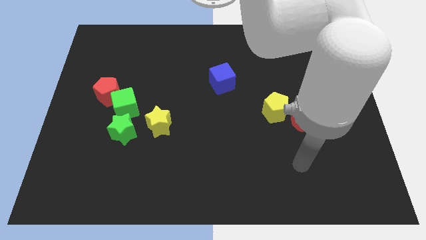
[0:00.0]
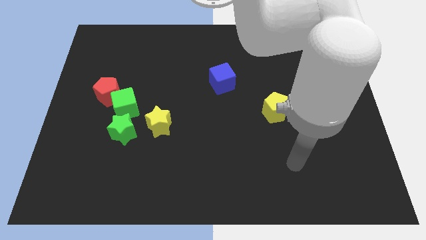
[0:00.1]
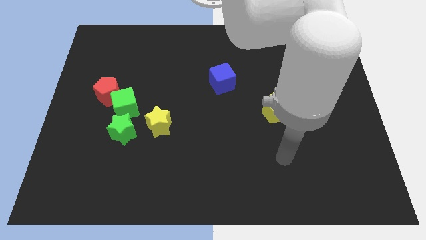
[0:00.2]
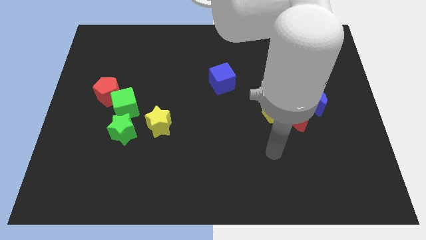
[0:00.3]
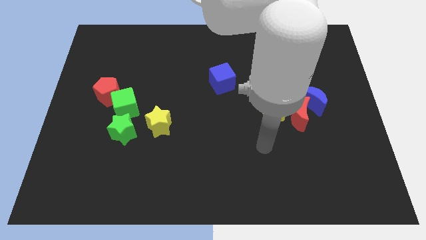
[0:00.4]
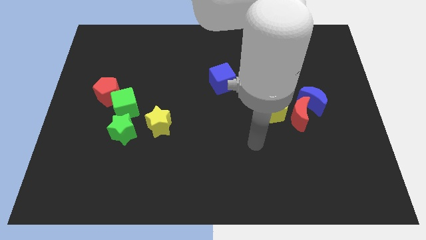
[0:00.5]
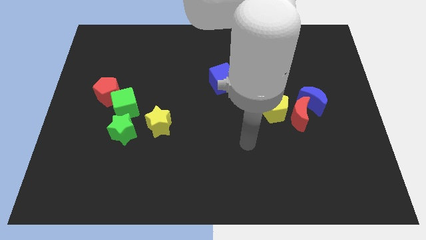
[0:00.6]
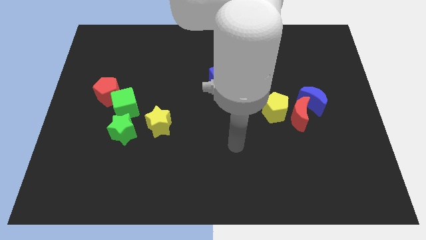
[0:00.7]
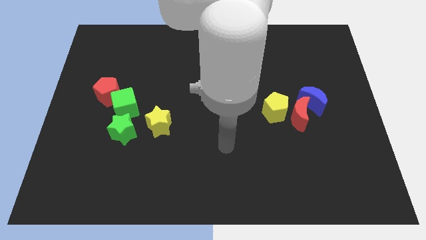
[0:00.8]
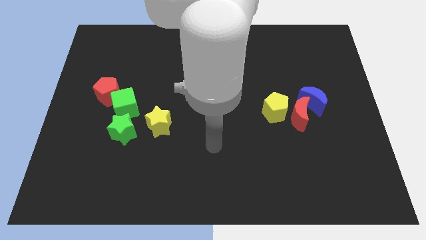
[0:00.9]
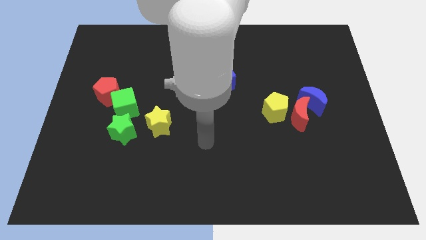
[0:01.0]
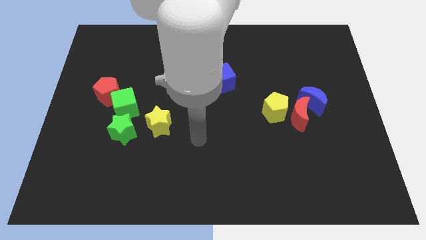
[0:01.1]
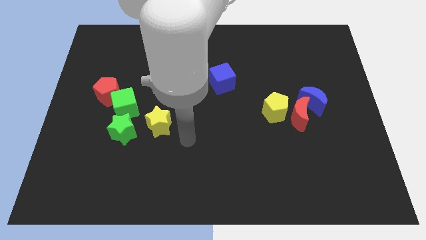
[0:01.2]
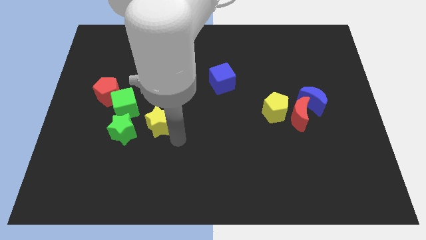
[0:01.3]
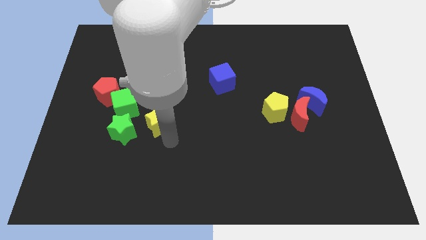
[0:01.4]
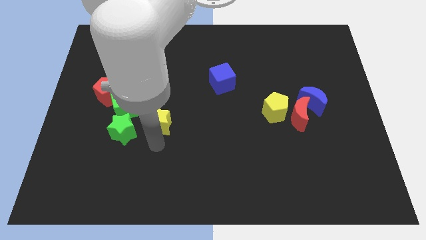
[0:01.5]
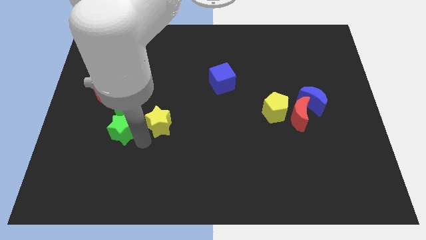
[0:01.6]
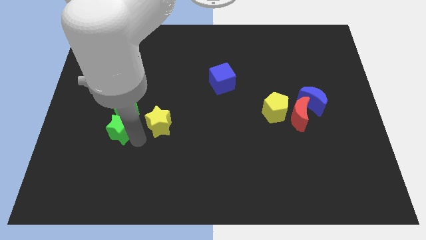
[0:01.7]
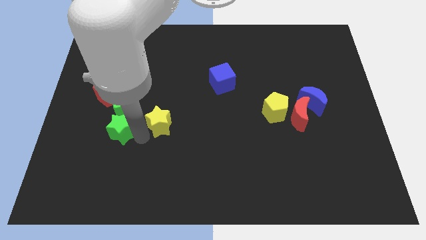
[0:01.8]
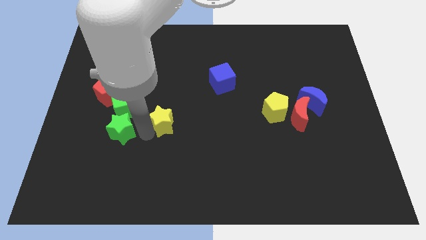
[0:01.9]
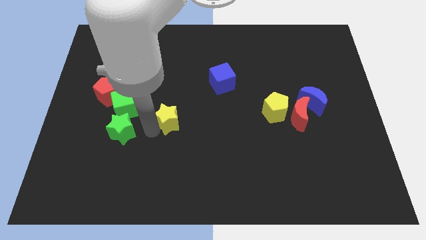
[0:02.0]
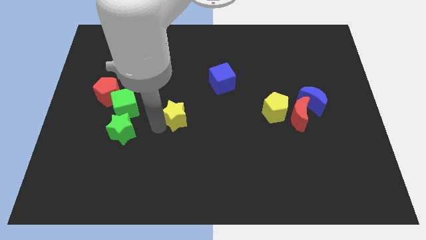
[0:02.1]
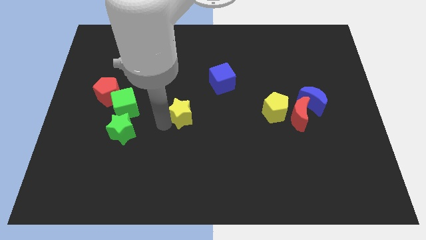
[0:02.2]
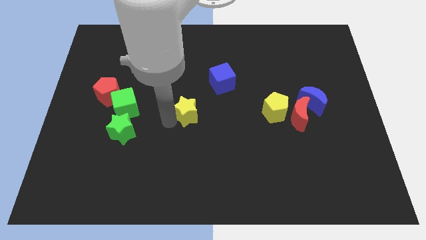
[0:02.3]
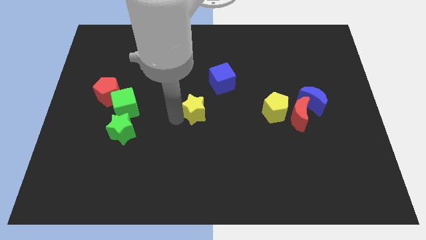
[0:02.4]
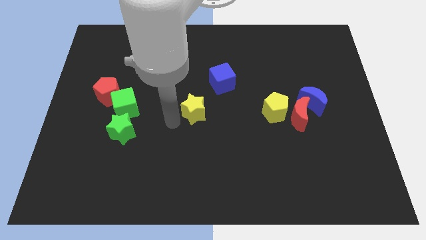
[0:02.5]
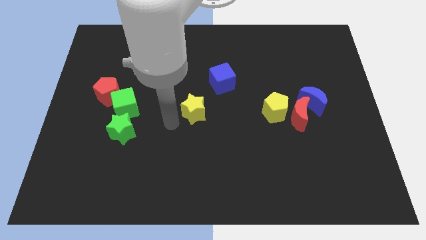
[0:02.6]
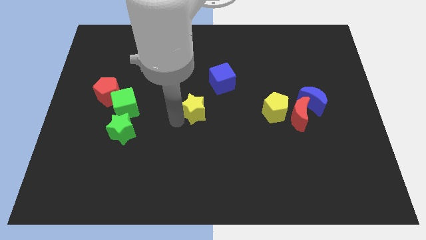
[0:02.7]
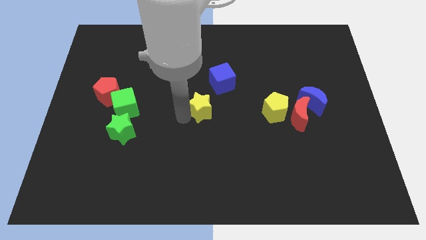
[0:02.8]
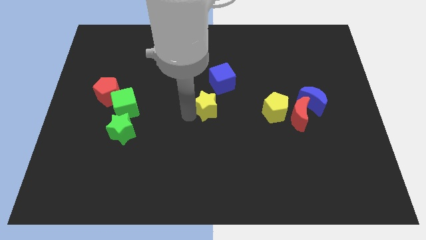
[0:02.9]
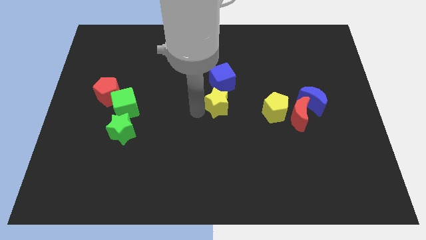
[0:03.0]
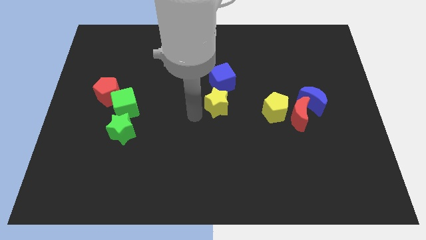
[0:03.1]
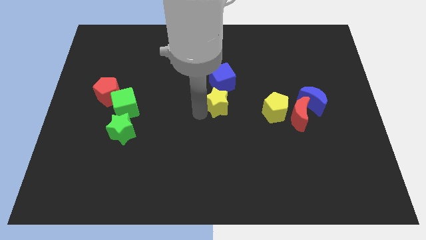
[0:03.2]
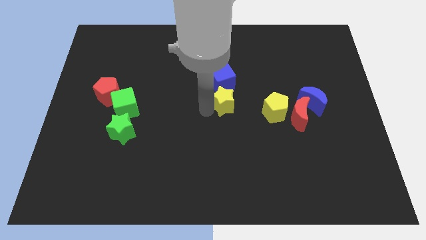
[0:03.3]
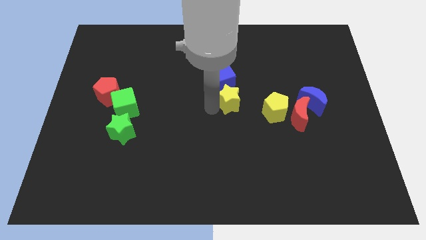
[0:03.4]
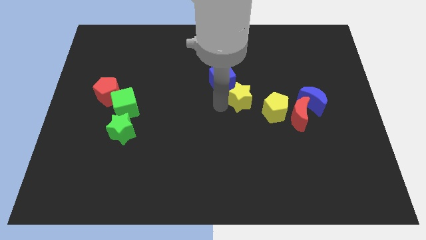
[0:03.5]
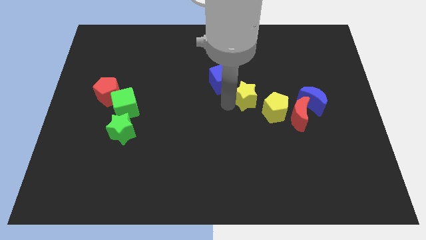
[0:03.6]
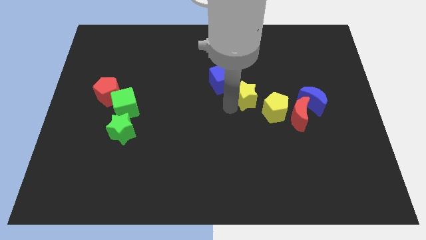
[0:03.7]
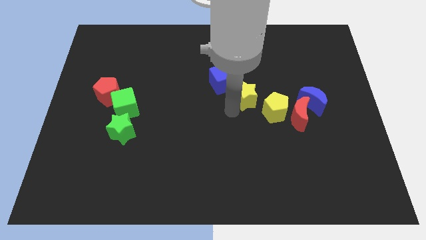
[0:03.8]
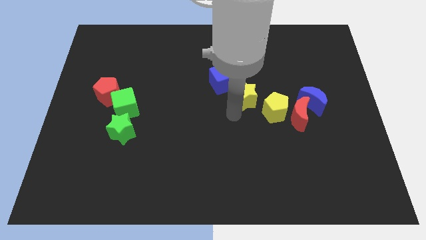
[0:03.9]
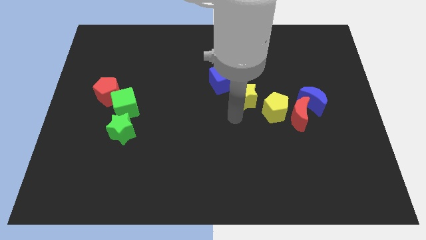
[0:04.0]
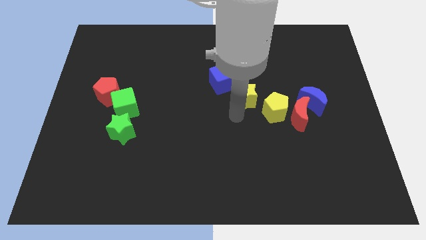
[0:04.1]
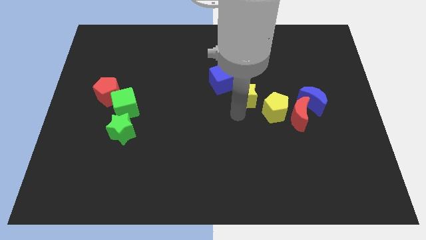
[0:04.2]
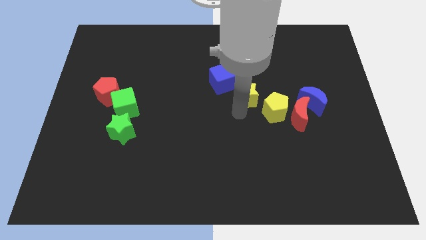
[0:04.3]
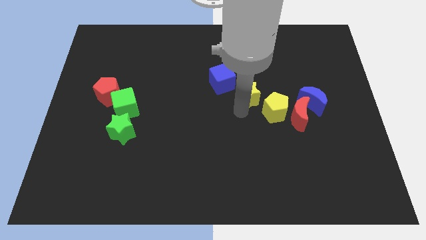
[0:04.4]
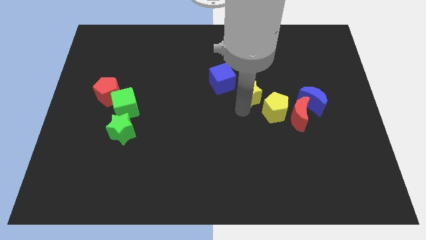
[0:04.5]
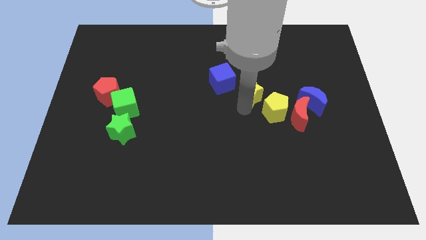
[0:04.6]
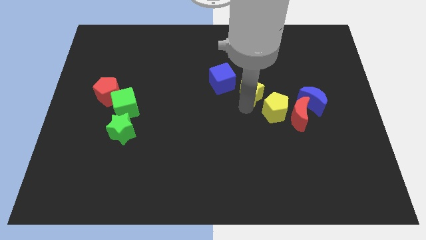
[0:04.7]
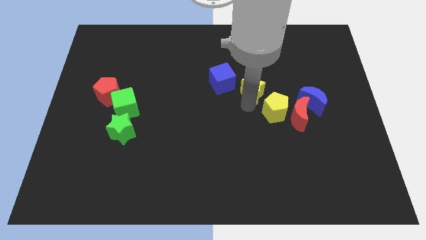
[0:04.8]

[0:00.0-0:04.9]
push the yellow star above the yellow pentagon

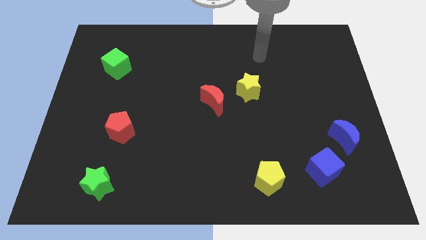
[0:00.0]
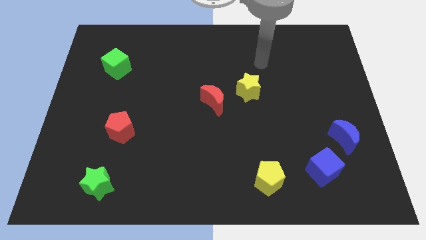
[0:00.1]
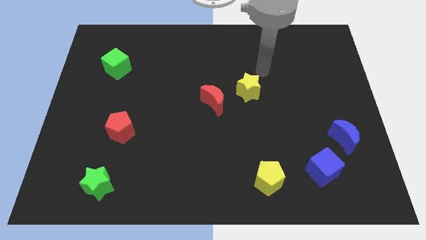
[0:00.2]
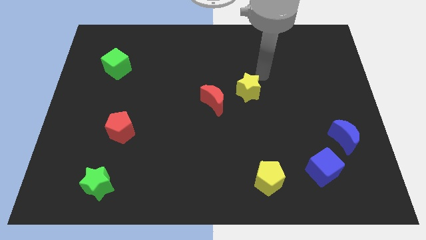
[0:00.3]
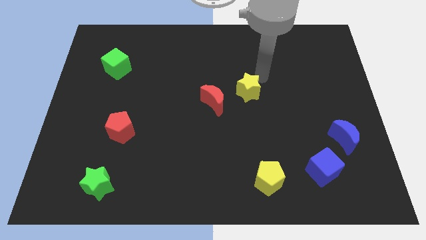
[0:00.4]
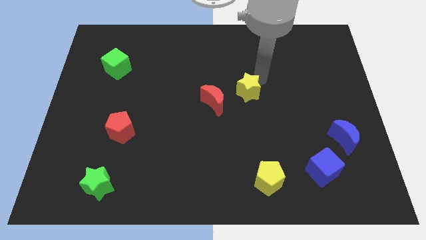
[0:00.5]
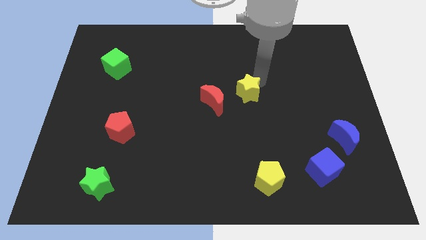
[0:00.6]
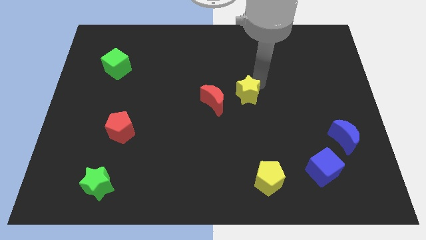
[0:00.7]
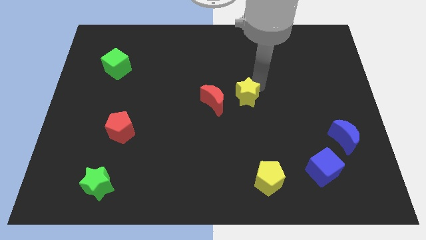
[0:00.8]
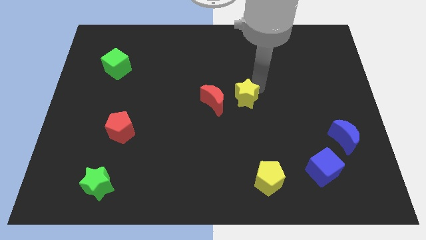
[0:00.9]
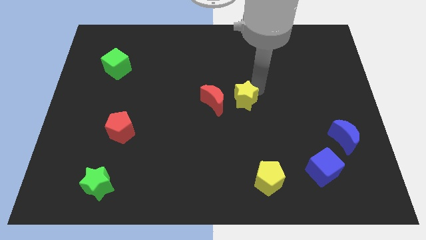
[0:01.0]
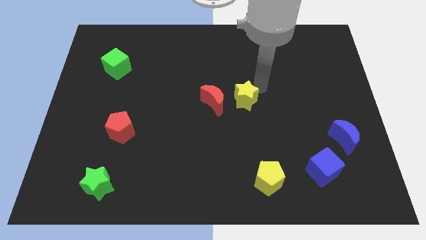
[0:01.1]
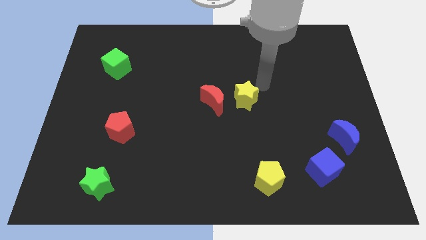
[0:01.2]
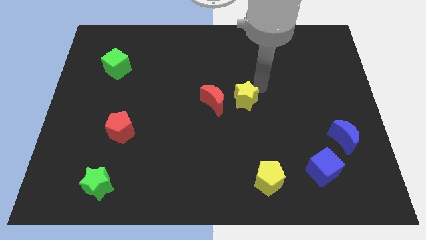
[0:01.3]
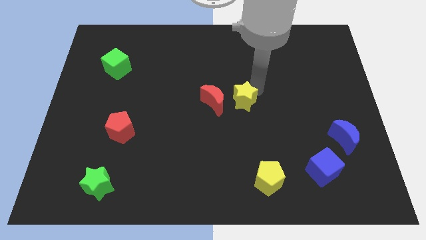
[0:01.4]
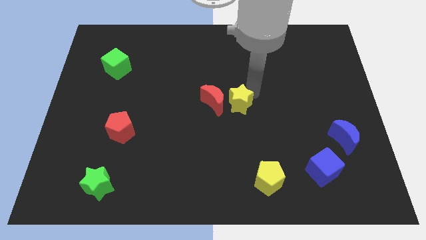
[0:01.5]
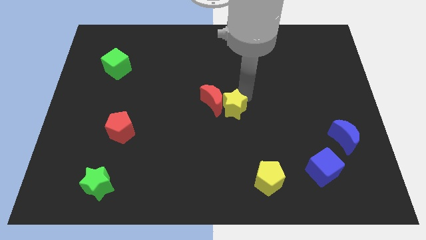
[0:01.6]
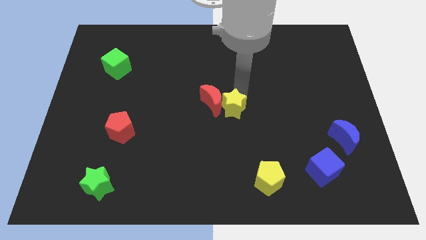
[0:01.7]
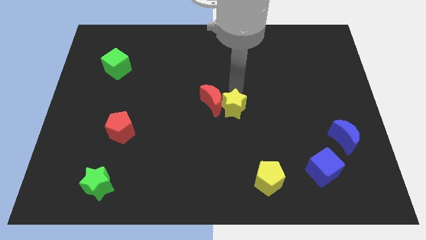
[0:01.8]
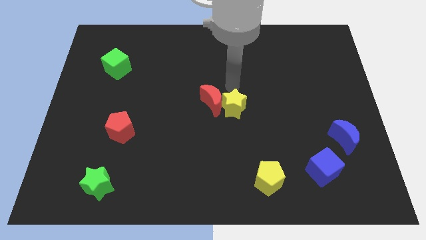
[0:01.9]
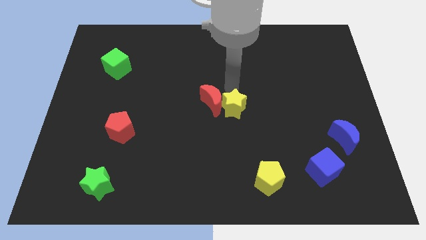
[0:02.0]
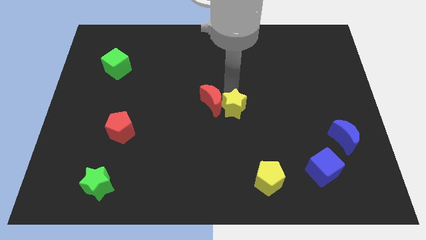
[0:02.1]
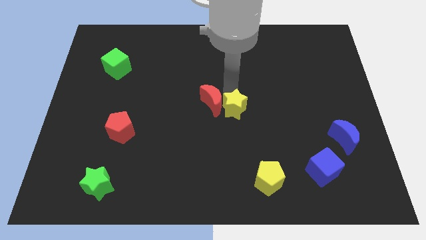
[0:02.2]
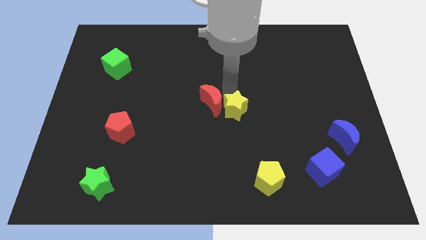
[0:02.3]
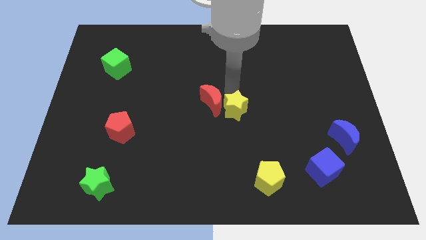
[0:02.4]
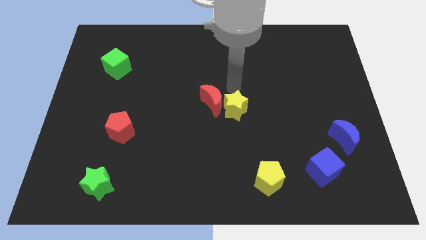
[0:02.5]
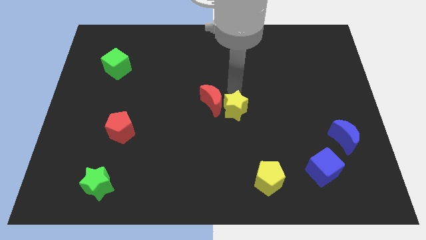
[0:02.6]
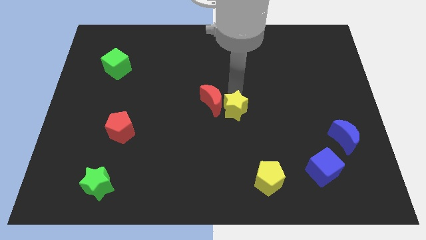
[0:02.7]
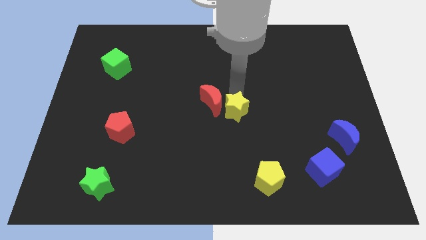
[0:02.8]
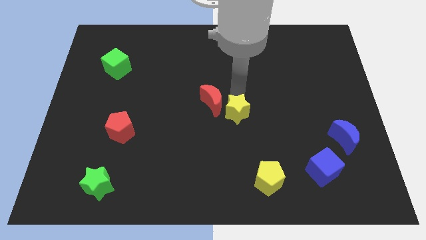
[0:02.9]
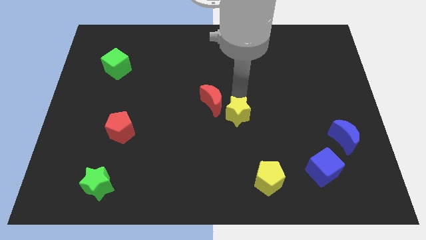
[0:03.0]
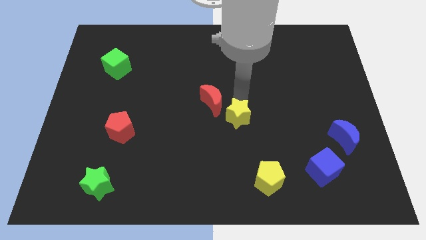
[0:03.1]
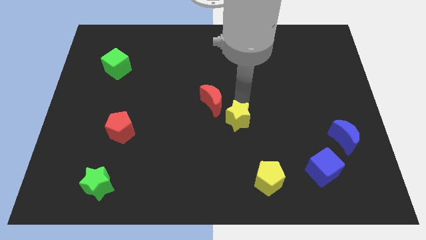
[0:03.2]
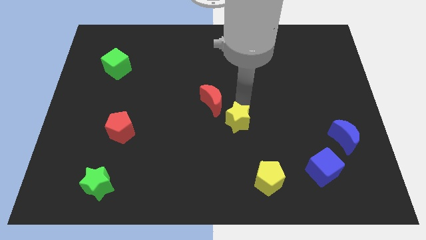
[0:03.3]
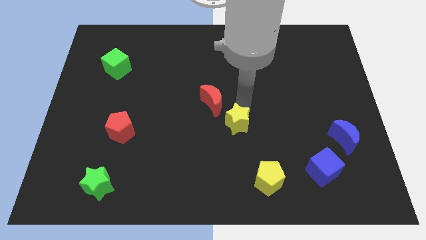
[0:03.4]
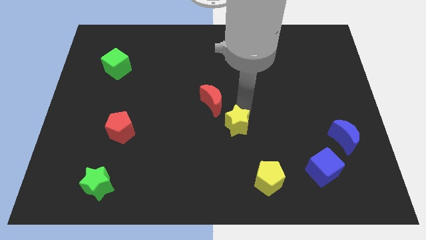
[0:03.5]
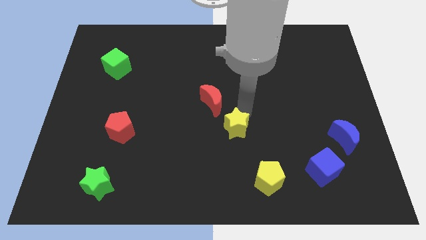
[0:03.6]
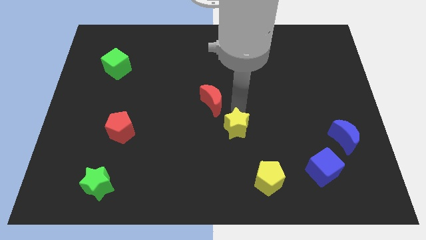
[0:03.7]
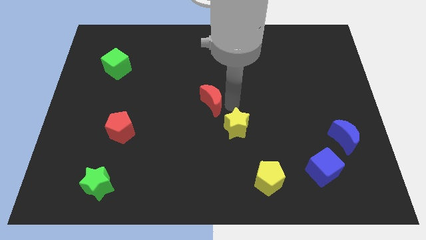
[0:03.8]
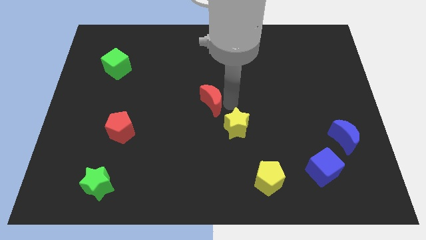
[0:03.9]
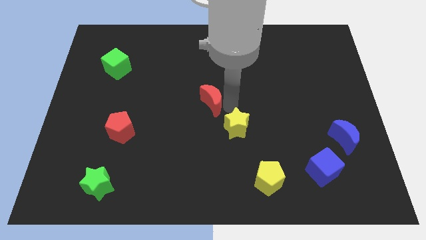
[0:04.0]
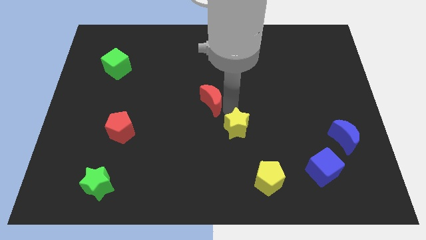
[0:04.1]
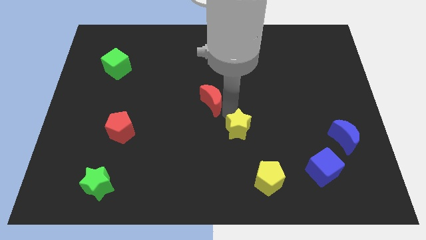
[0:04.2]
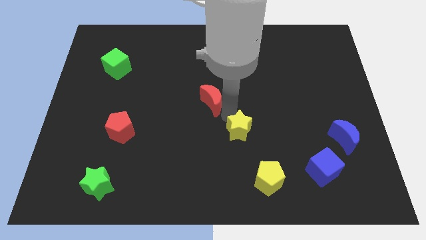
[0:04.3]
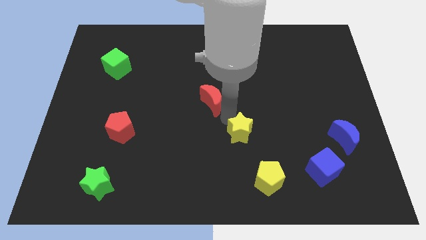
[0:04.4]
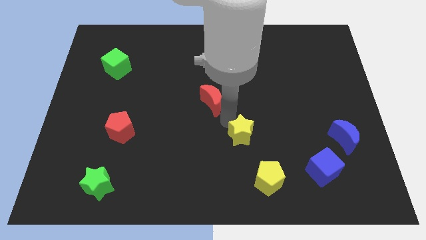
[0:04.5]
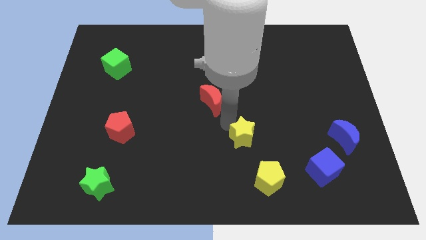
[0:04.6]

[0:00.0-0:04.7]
slide the yellow star diagonally up and to the left of the yellow pentagon
